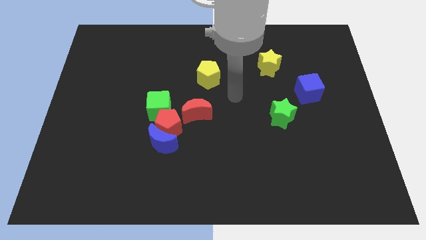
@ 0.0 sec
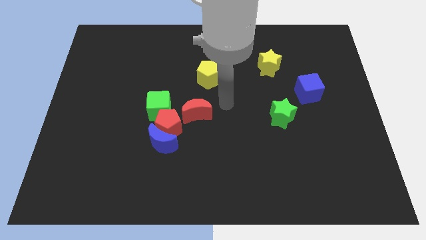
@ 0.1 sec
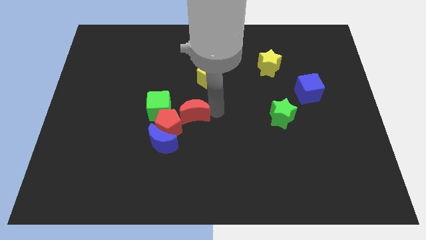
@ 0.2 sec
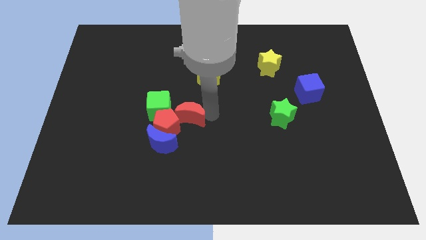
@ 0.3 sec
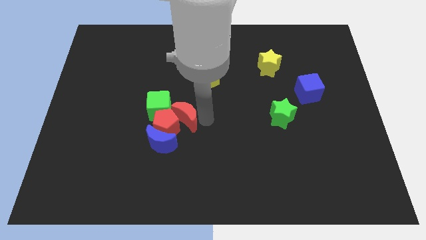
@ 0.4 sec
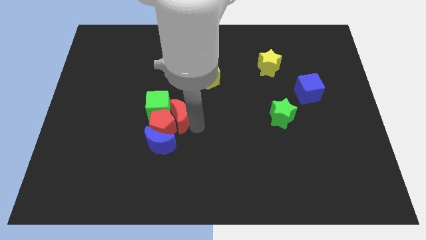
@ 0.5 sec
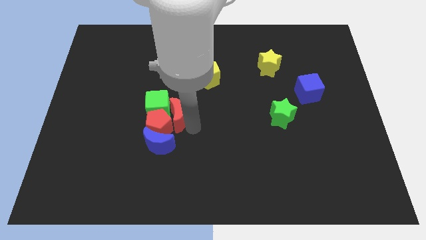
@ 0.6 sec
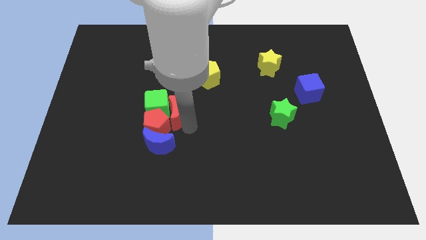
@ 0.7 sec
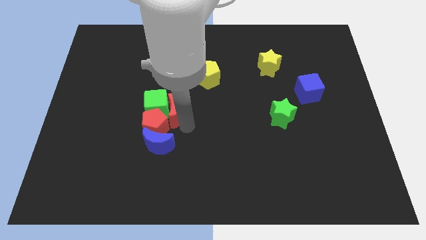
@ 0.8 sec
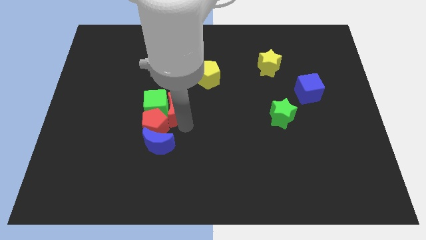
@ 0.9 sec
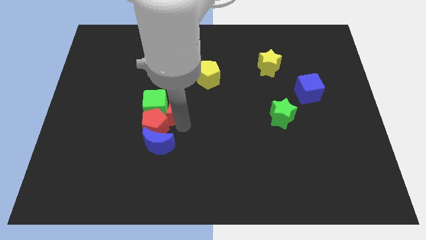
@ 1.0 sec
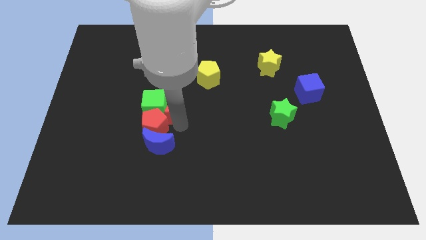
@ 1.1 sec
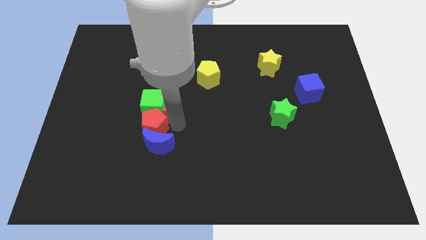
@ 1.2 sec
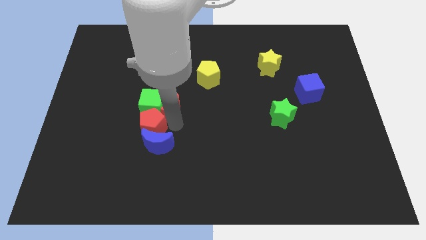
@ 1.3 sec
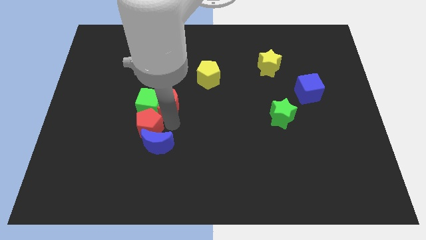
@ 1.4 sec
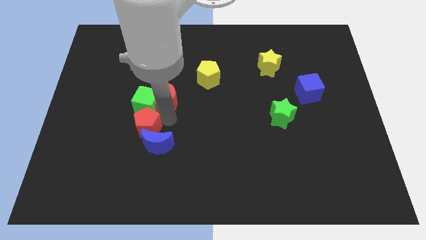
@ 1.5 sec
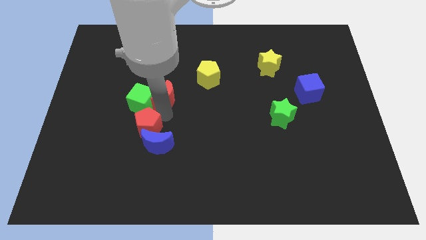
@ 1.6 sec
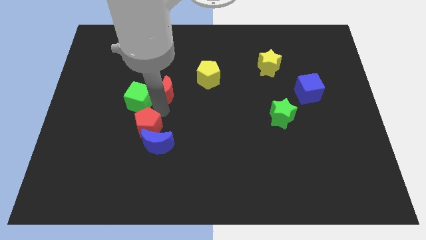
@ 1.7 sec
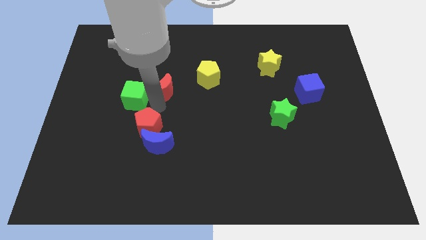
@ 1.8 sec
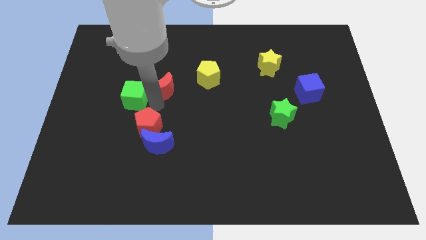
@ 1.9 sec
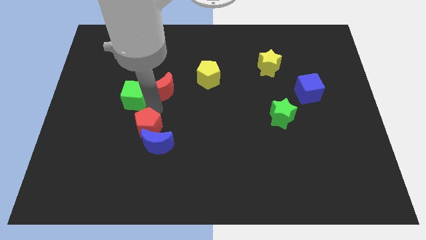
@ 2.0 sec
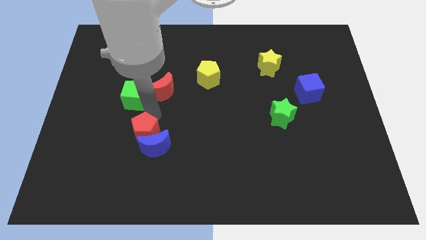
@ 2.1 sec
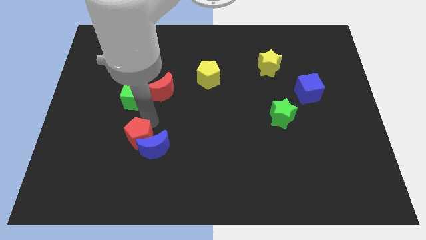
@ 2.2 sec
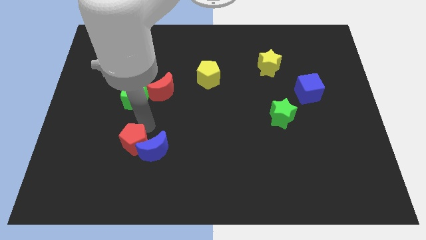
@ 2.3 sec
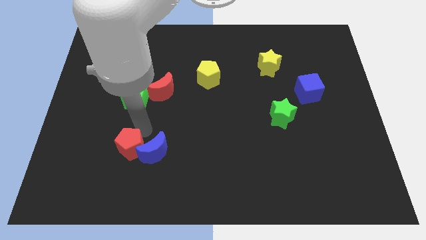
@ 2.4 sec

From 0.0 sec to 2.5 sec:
separate the red pentagon from the blue moon, green cube, and red moon

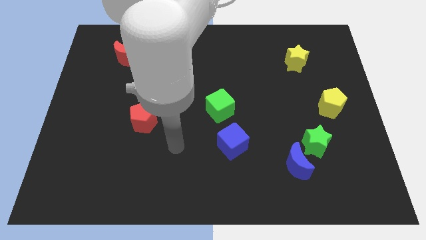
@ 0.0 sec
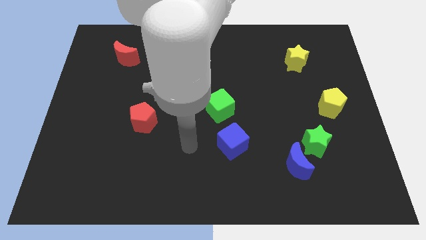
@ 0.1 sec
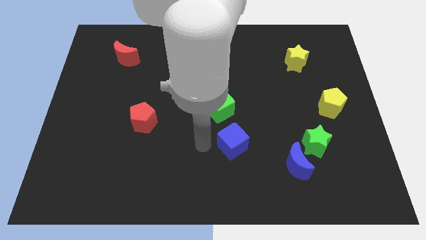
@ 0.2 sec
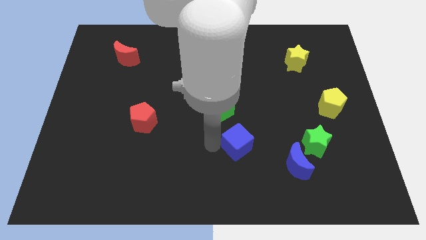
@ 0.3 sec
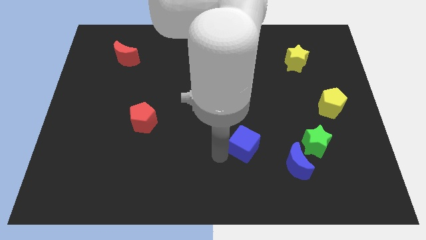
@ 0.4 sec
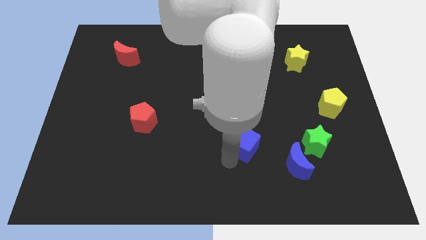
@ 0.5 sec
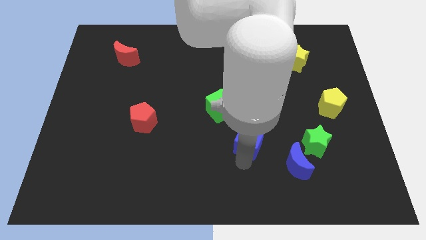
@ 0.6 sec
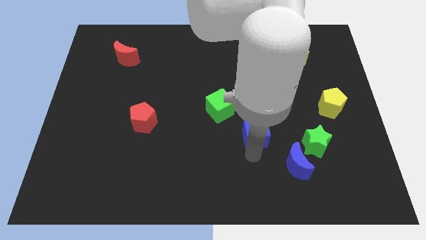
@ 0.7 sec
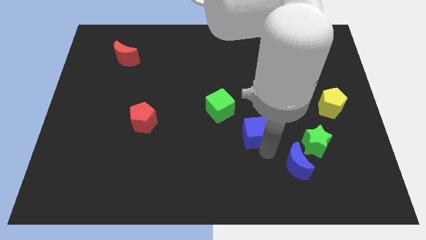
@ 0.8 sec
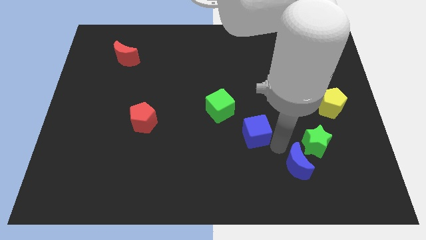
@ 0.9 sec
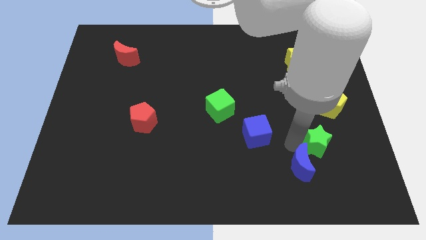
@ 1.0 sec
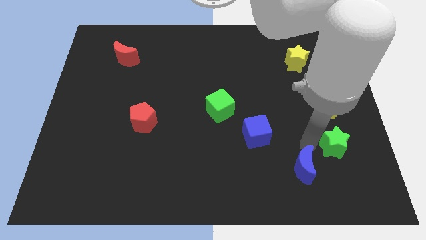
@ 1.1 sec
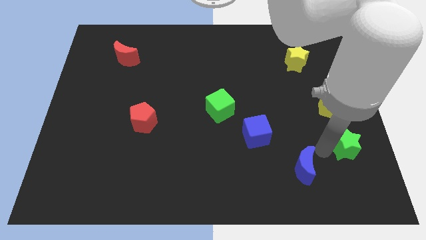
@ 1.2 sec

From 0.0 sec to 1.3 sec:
separate the blue moon from the green star

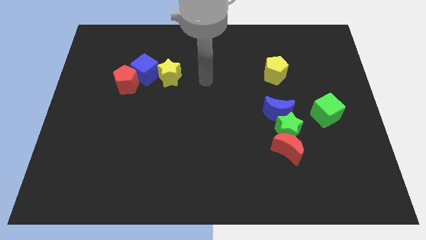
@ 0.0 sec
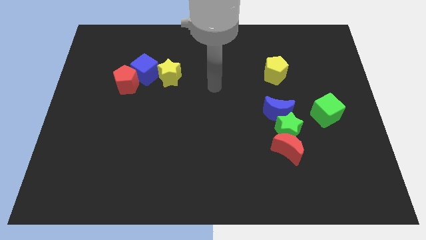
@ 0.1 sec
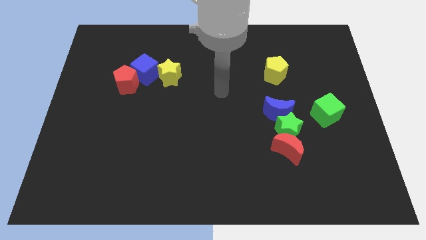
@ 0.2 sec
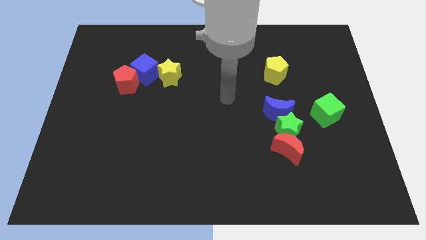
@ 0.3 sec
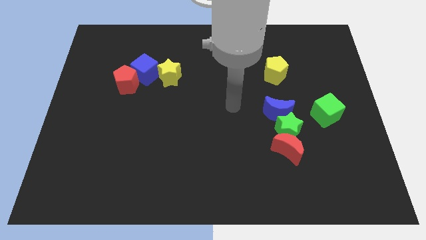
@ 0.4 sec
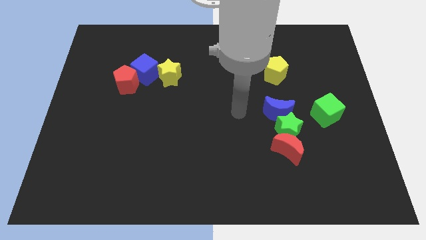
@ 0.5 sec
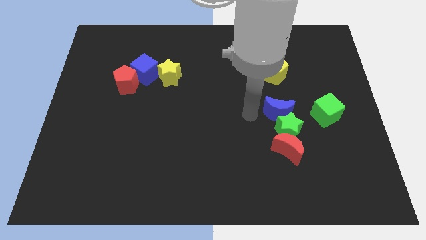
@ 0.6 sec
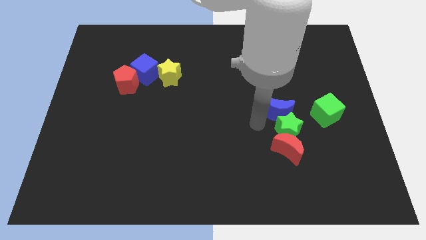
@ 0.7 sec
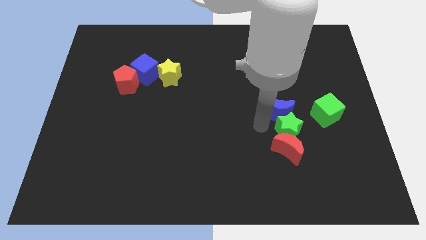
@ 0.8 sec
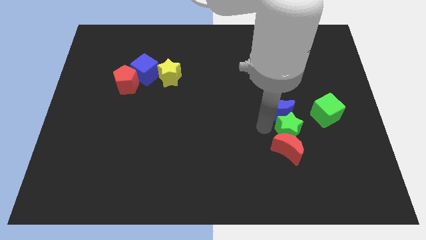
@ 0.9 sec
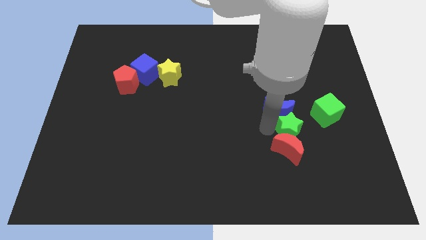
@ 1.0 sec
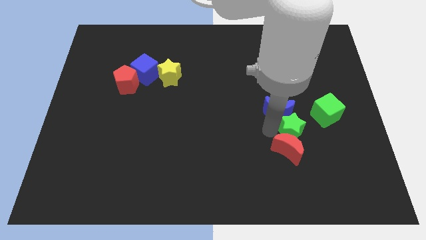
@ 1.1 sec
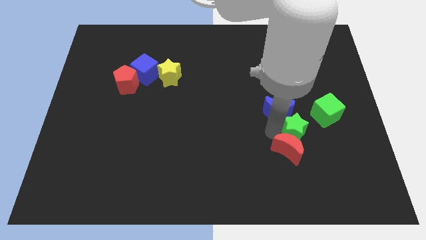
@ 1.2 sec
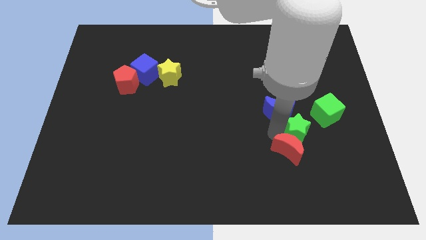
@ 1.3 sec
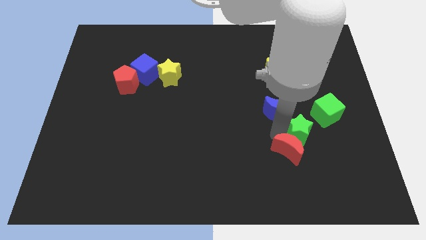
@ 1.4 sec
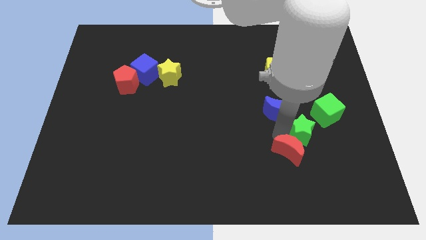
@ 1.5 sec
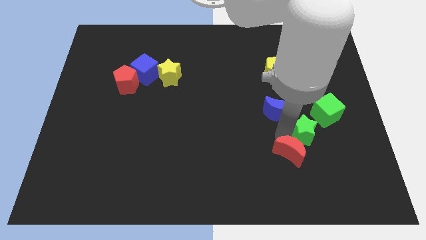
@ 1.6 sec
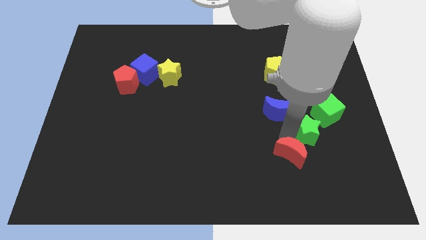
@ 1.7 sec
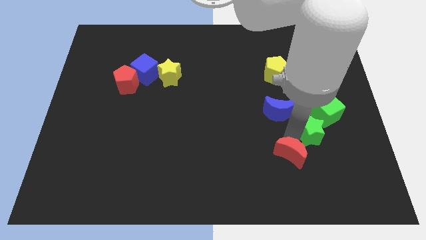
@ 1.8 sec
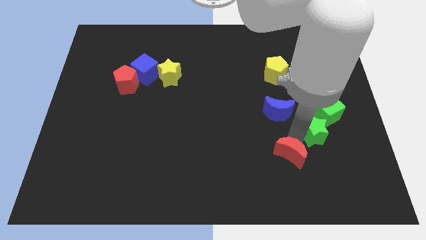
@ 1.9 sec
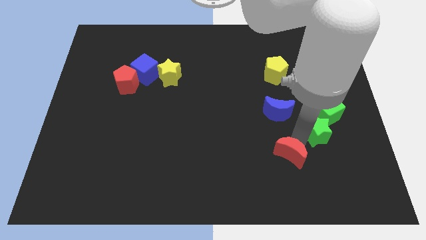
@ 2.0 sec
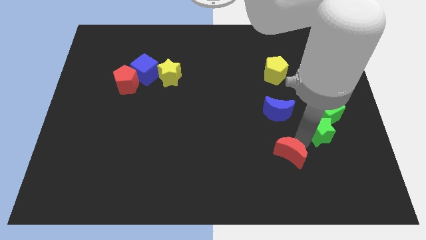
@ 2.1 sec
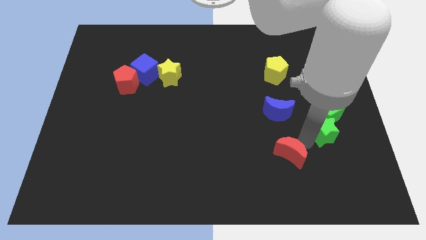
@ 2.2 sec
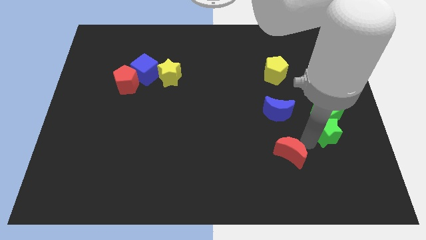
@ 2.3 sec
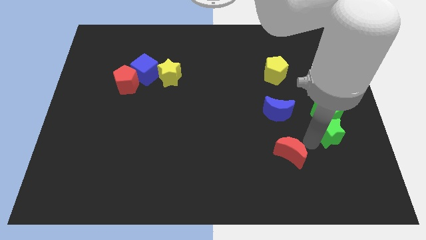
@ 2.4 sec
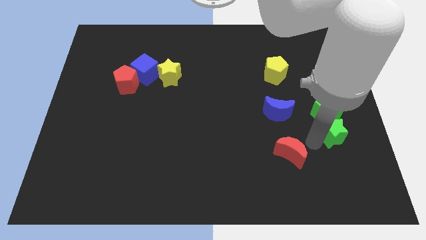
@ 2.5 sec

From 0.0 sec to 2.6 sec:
move the green star away from the red moon and blue moon

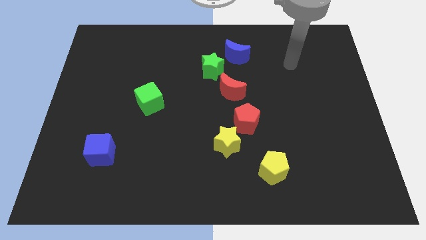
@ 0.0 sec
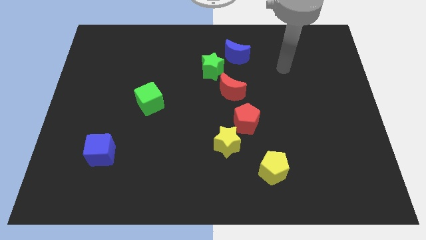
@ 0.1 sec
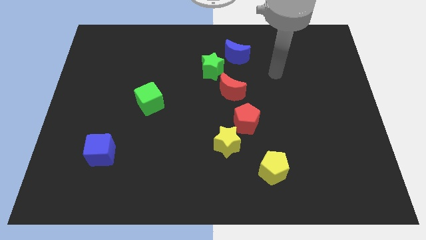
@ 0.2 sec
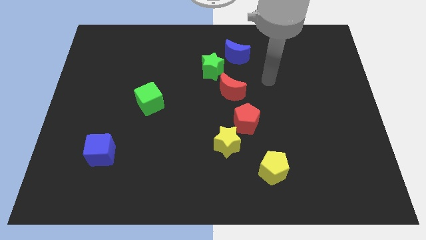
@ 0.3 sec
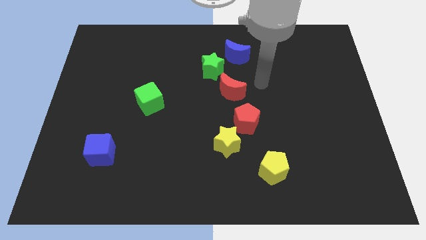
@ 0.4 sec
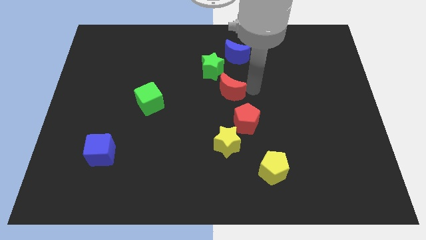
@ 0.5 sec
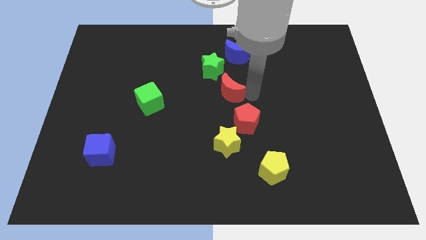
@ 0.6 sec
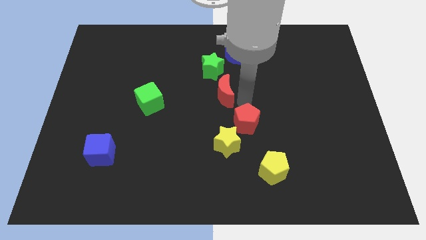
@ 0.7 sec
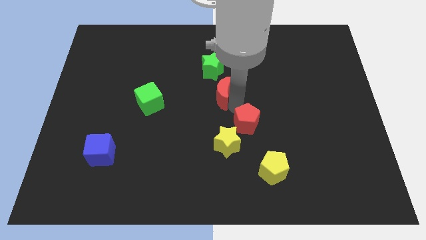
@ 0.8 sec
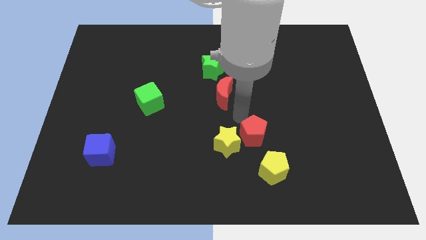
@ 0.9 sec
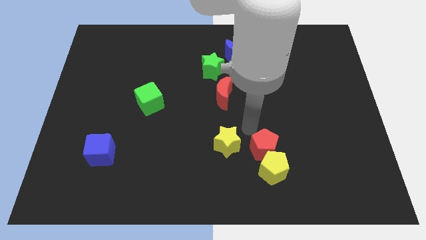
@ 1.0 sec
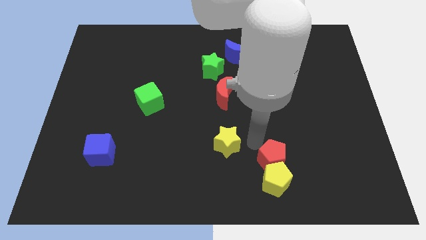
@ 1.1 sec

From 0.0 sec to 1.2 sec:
pull the yellow star apart from the red pentagon

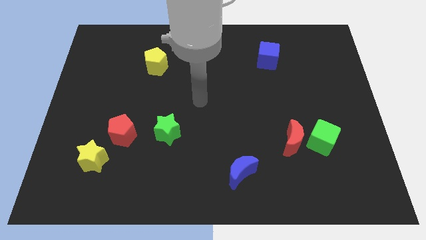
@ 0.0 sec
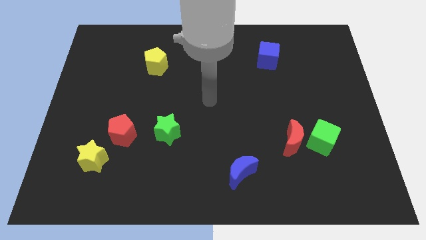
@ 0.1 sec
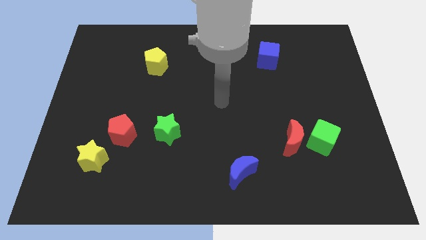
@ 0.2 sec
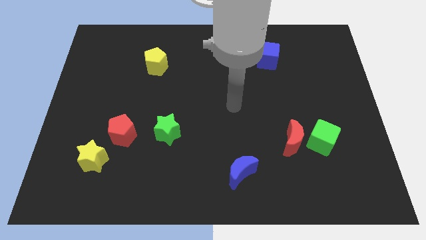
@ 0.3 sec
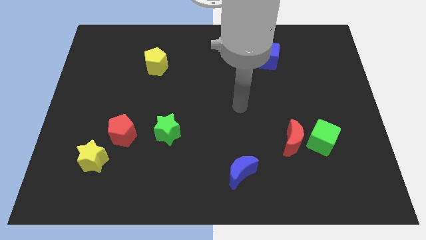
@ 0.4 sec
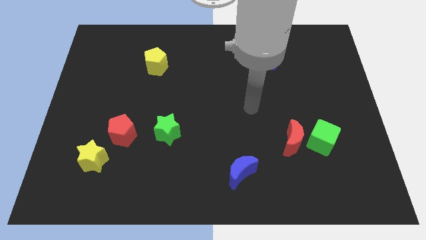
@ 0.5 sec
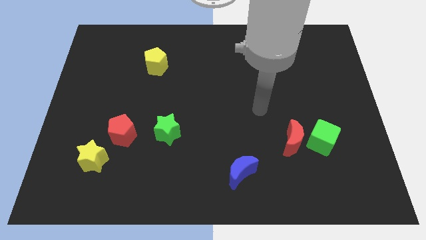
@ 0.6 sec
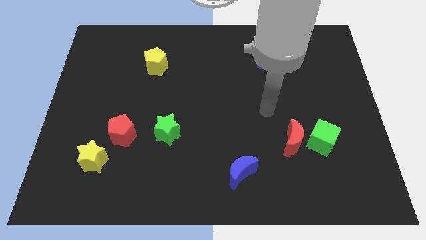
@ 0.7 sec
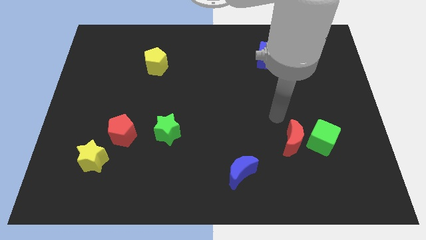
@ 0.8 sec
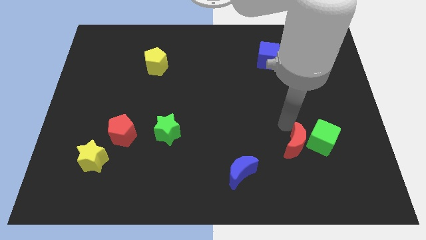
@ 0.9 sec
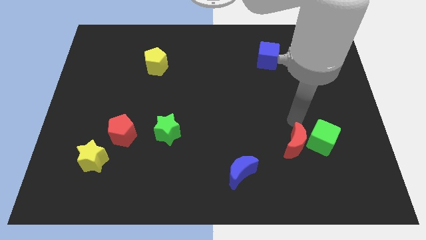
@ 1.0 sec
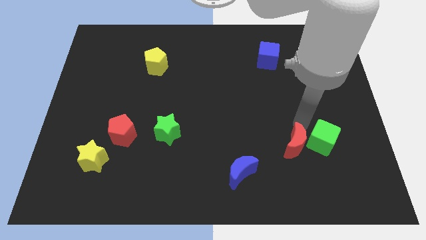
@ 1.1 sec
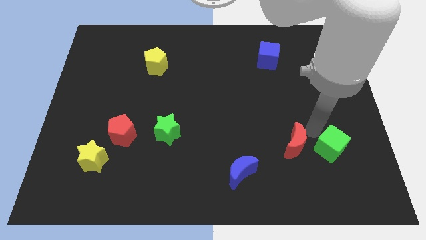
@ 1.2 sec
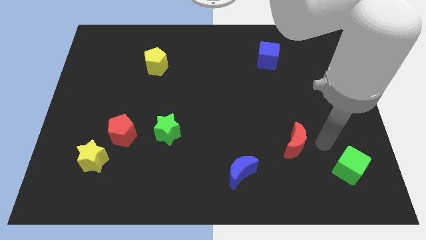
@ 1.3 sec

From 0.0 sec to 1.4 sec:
separate the red moon from the green cube

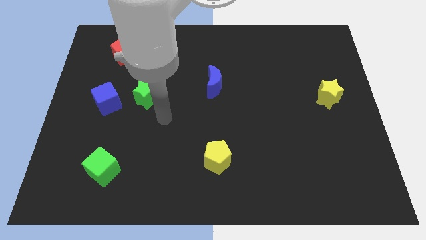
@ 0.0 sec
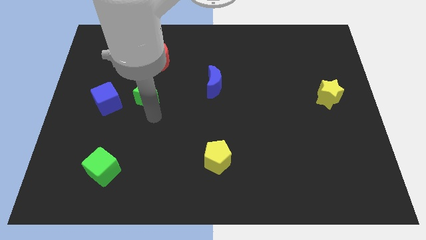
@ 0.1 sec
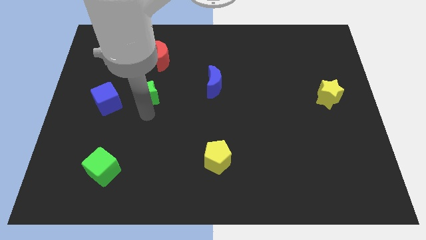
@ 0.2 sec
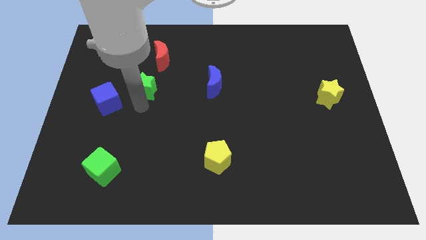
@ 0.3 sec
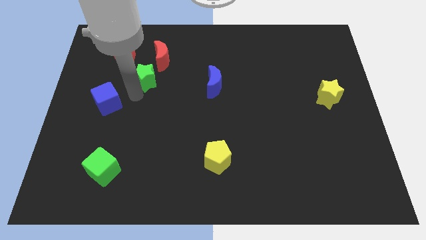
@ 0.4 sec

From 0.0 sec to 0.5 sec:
separate the blue cube from the green star
